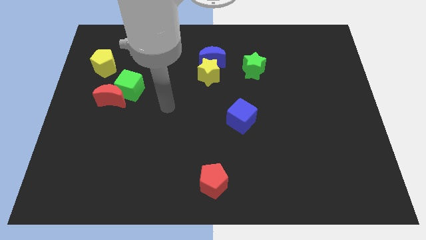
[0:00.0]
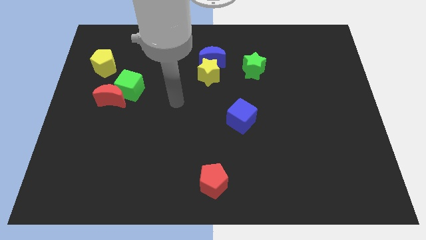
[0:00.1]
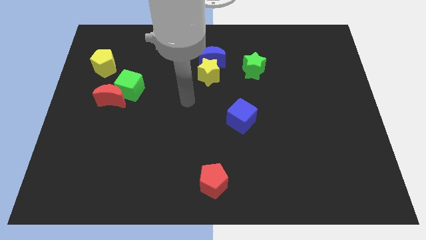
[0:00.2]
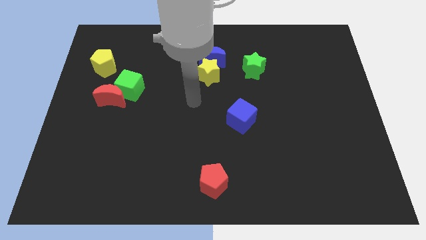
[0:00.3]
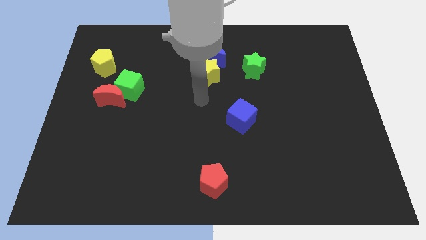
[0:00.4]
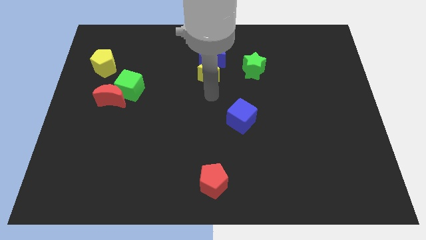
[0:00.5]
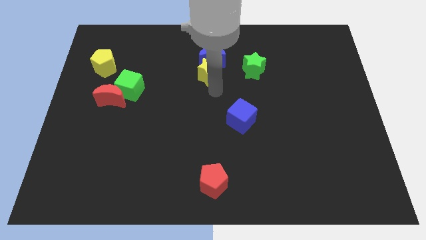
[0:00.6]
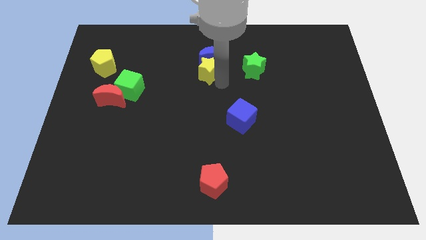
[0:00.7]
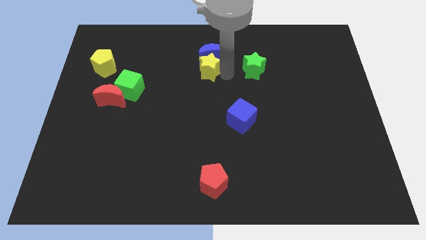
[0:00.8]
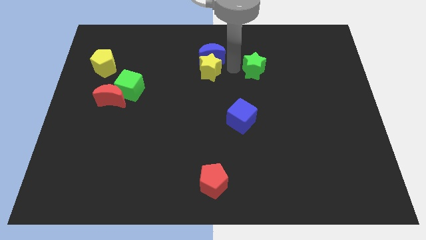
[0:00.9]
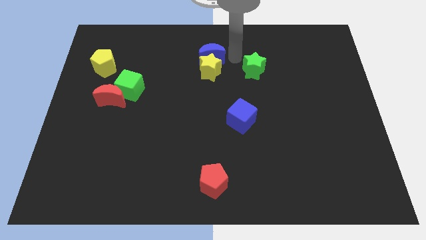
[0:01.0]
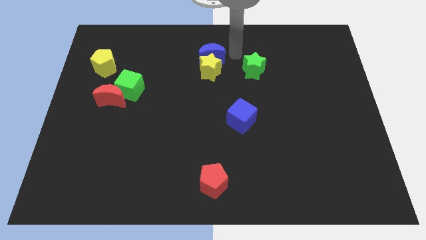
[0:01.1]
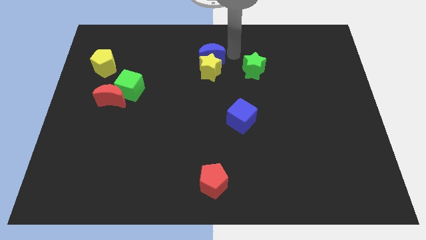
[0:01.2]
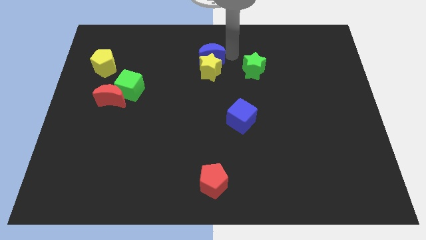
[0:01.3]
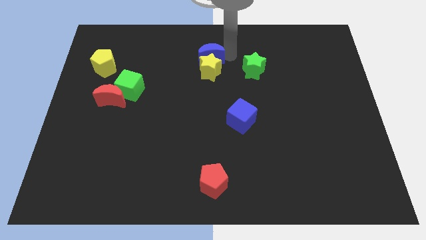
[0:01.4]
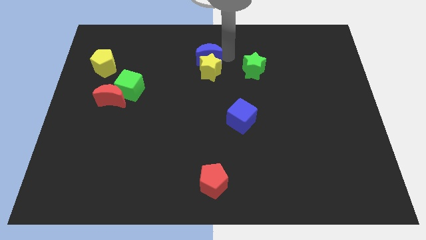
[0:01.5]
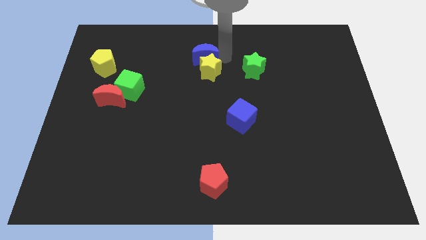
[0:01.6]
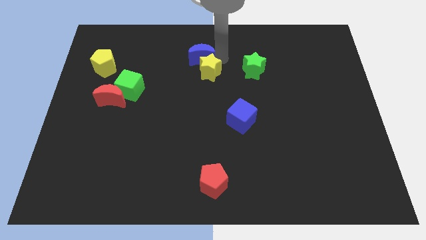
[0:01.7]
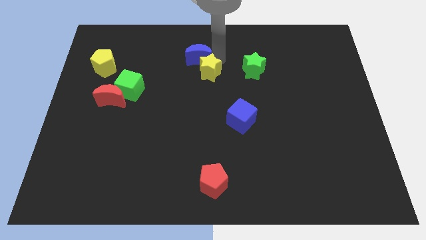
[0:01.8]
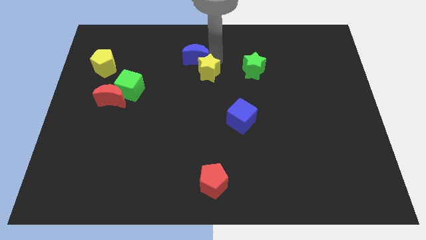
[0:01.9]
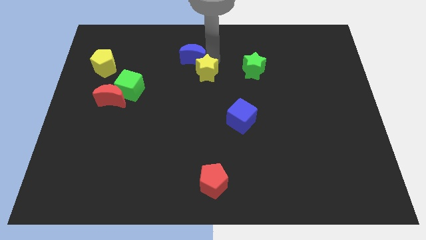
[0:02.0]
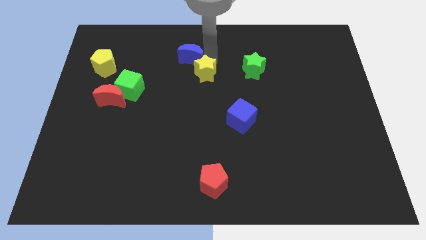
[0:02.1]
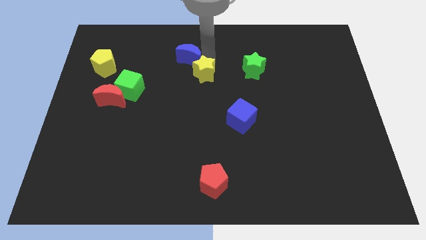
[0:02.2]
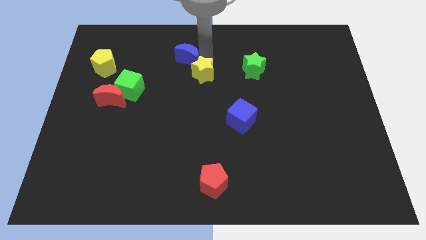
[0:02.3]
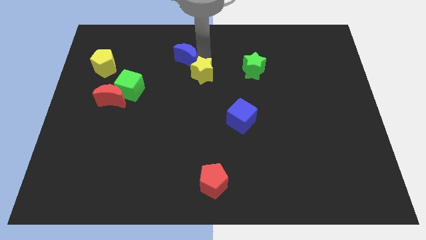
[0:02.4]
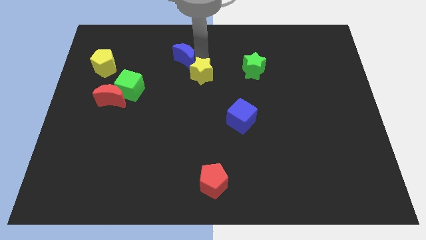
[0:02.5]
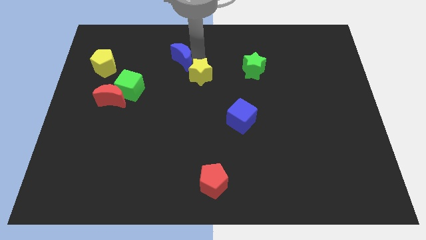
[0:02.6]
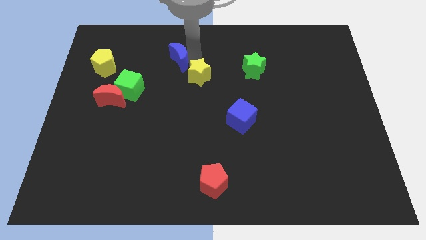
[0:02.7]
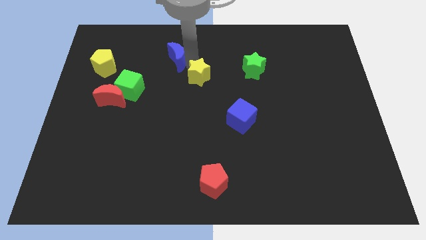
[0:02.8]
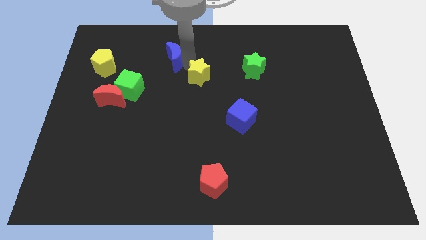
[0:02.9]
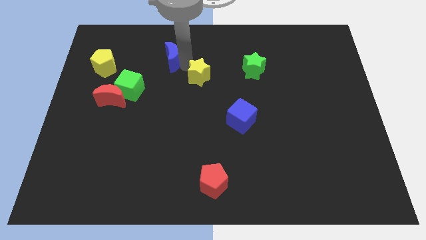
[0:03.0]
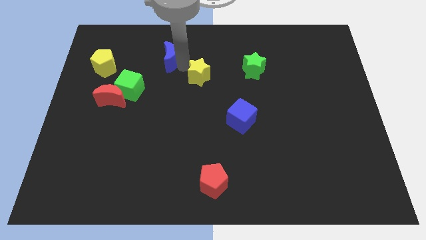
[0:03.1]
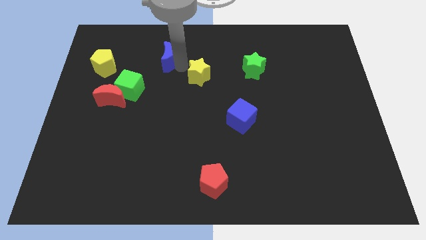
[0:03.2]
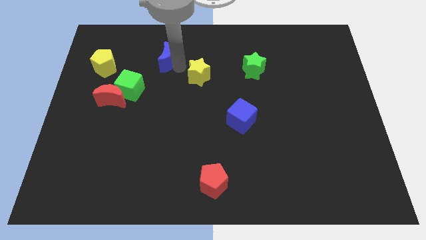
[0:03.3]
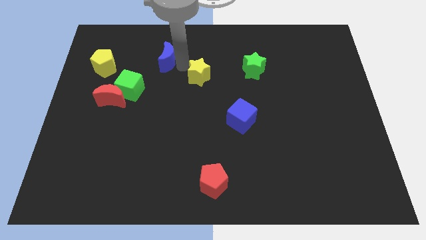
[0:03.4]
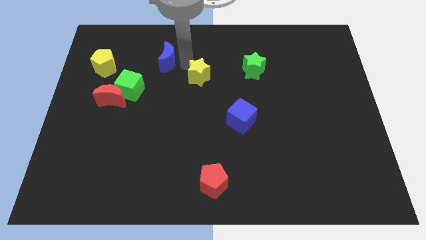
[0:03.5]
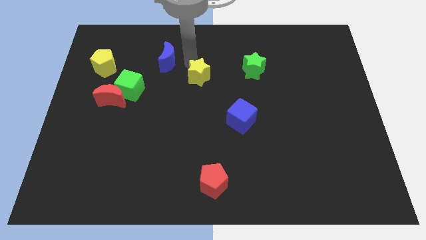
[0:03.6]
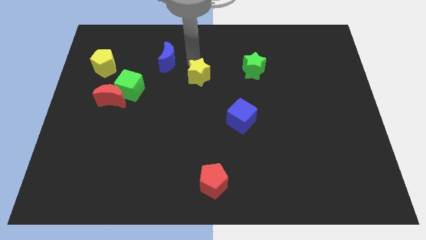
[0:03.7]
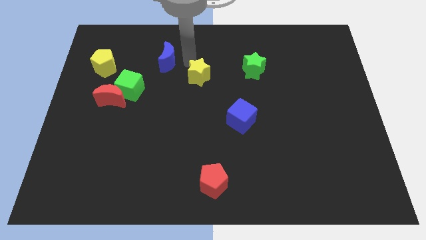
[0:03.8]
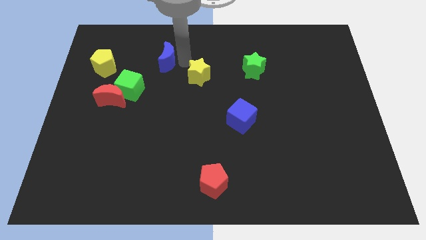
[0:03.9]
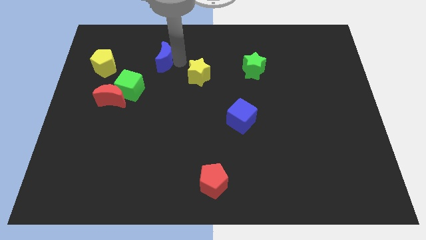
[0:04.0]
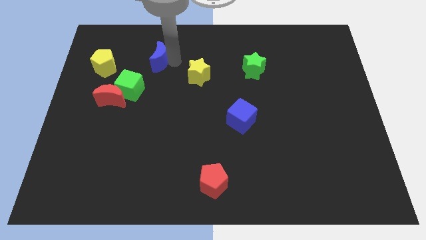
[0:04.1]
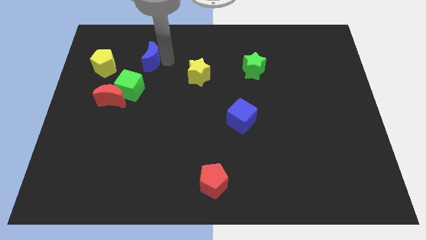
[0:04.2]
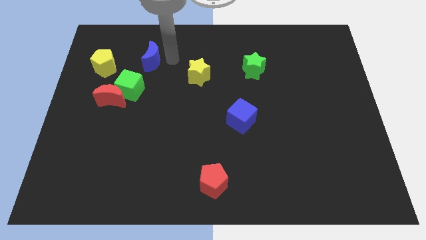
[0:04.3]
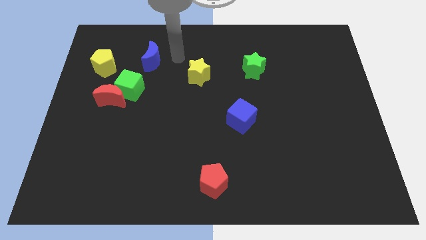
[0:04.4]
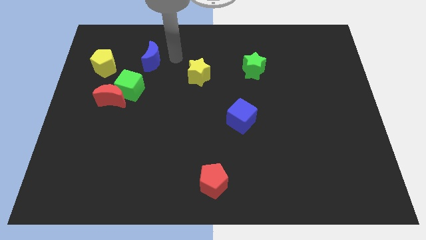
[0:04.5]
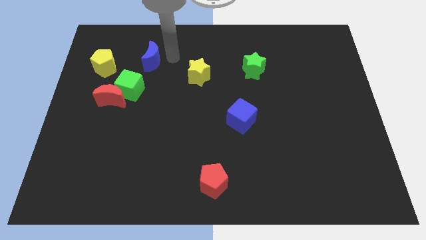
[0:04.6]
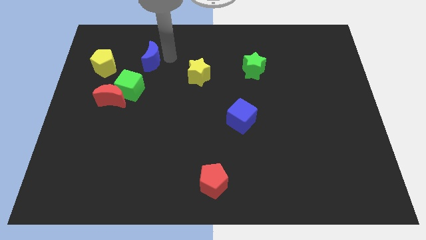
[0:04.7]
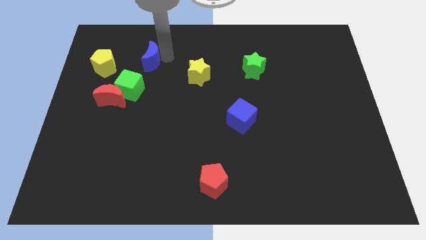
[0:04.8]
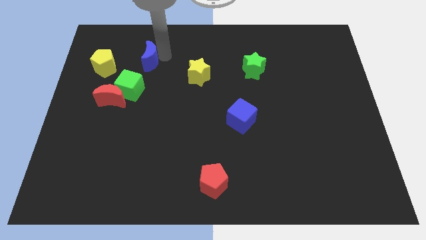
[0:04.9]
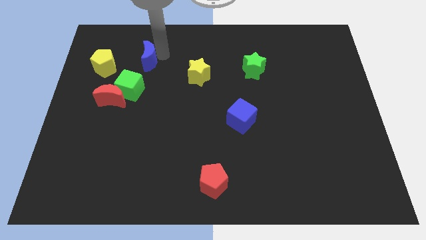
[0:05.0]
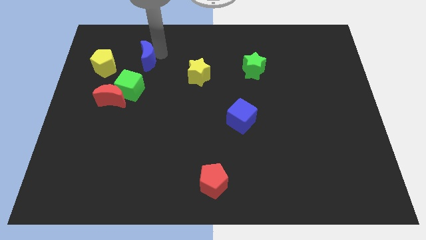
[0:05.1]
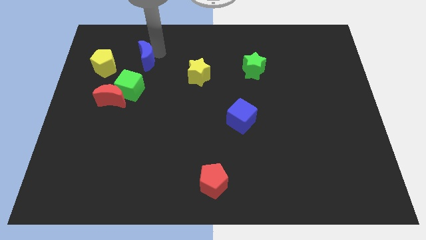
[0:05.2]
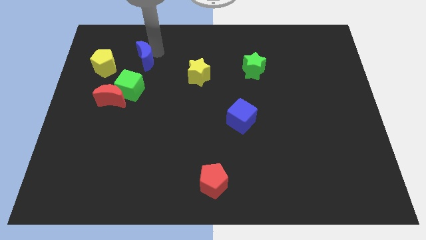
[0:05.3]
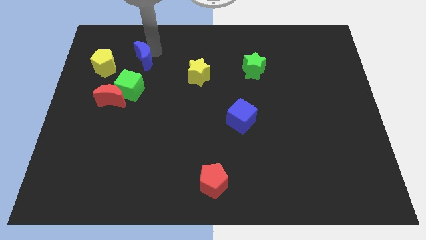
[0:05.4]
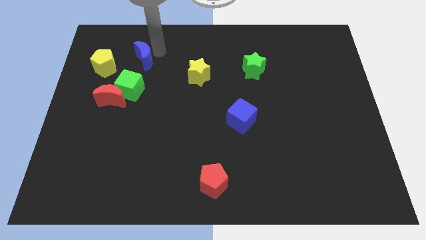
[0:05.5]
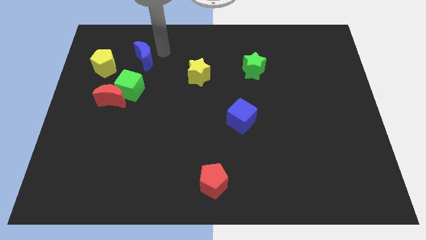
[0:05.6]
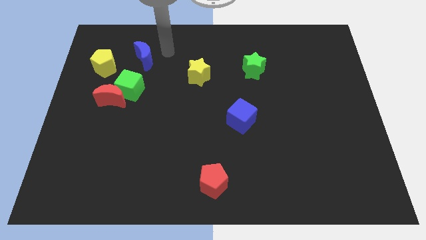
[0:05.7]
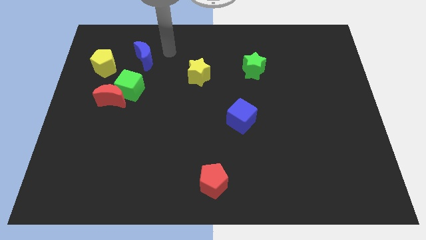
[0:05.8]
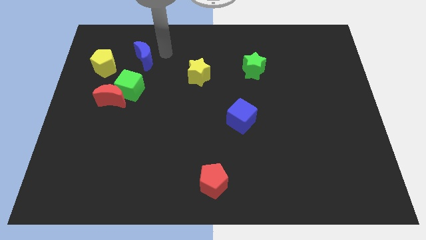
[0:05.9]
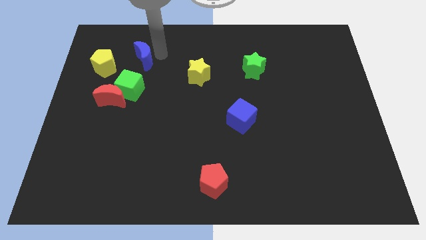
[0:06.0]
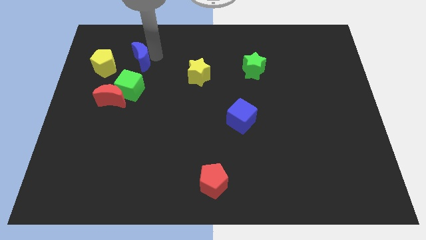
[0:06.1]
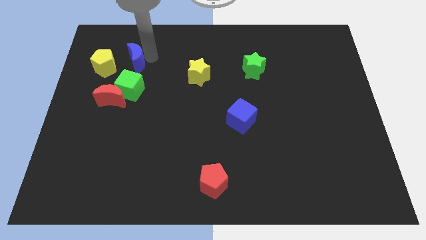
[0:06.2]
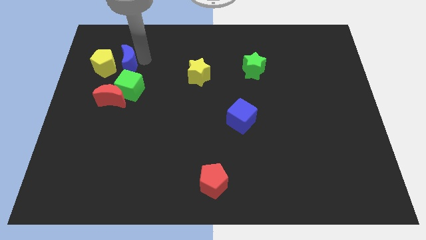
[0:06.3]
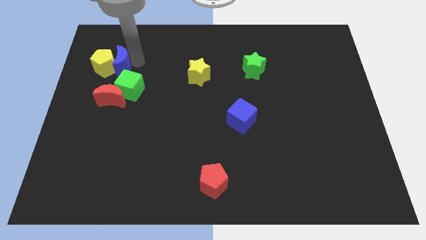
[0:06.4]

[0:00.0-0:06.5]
slide the blue moon close to the yellow pentagon
